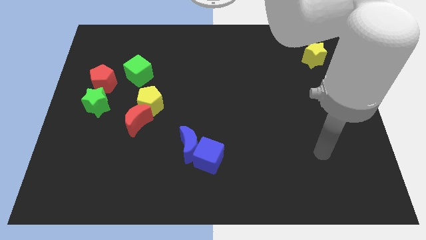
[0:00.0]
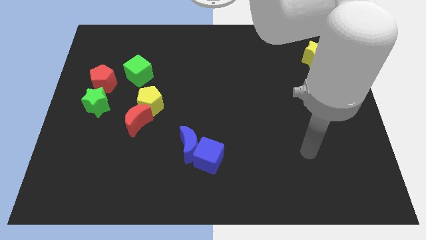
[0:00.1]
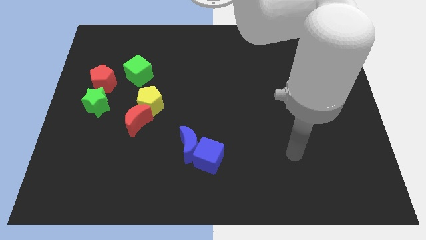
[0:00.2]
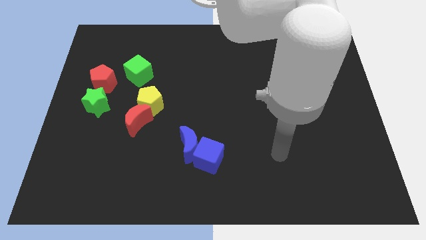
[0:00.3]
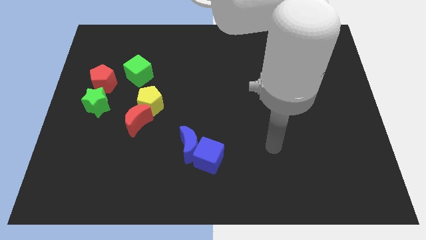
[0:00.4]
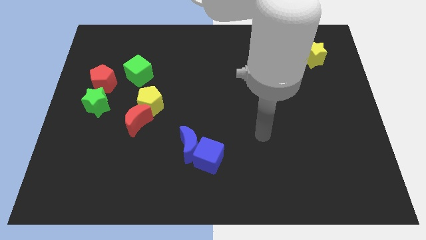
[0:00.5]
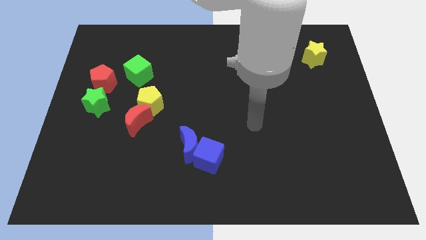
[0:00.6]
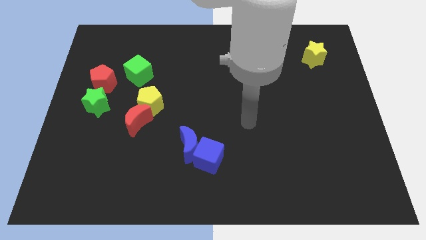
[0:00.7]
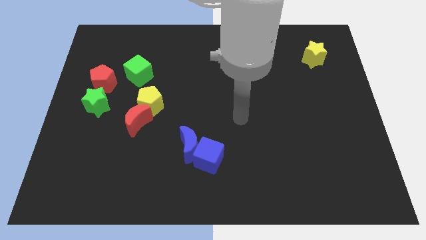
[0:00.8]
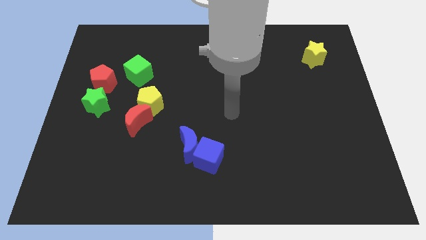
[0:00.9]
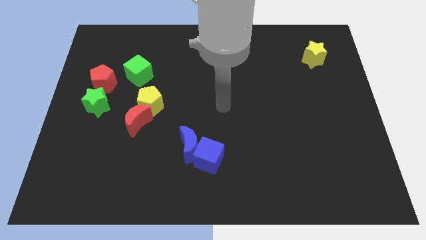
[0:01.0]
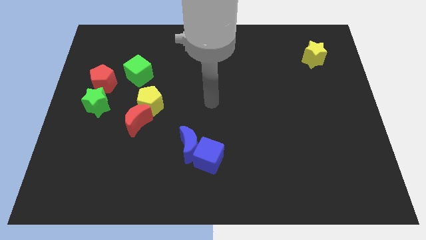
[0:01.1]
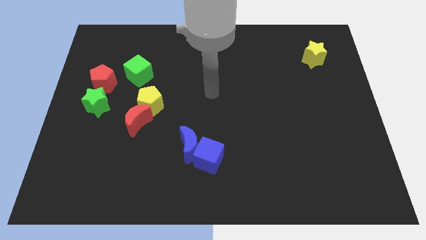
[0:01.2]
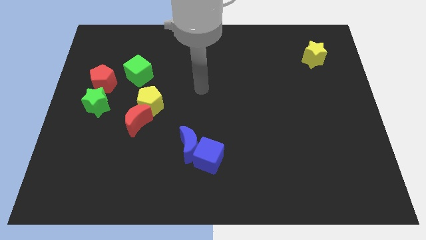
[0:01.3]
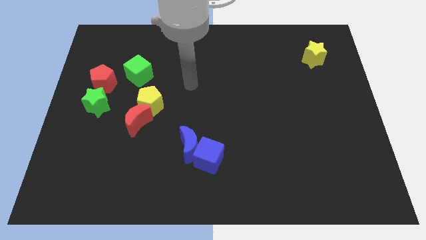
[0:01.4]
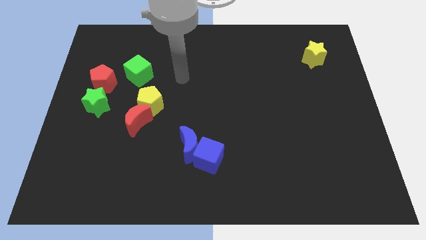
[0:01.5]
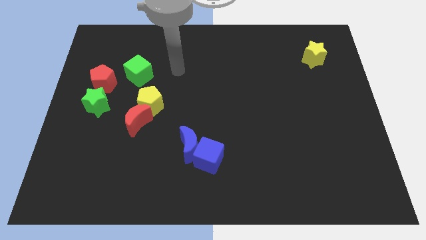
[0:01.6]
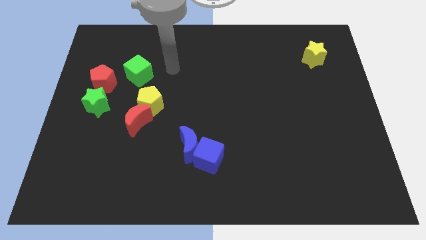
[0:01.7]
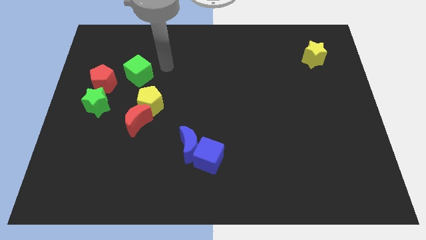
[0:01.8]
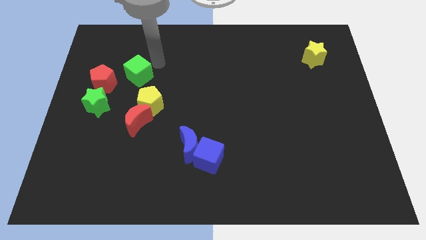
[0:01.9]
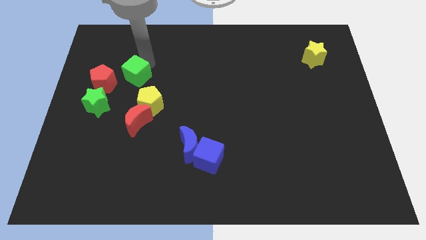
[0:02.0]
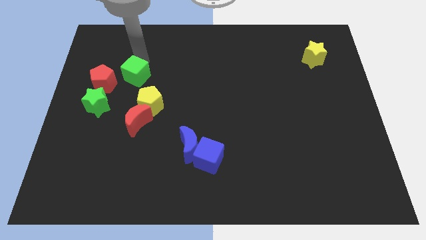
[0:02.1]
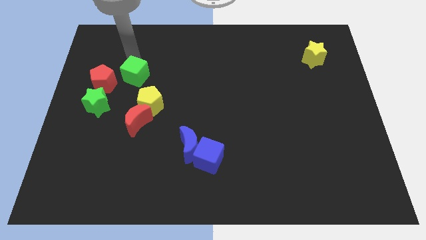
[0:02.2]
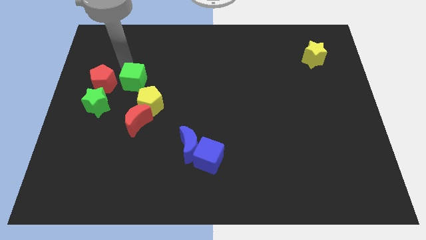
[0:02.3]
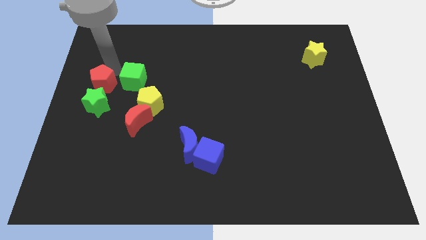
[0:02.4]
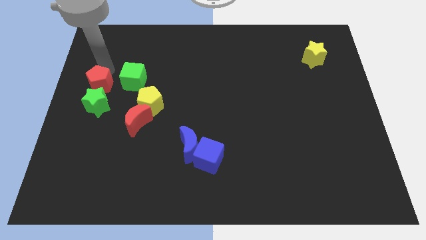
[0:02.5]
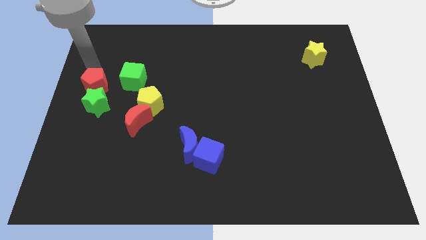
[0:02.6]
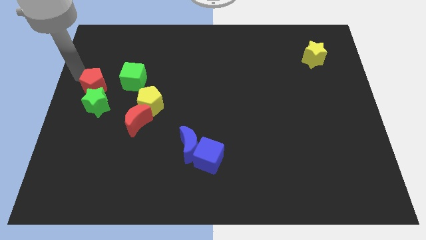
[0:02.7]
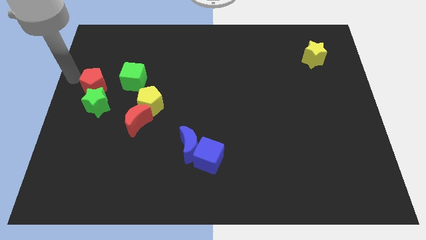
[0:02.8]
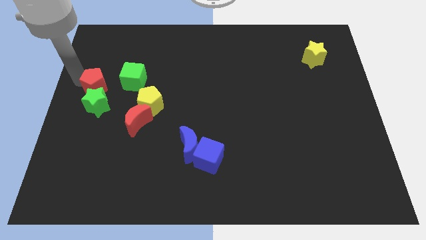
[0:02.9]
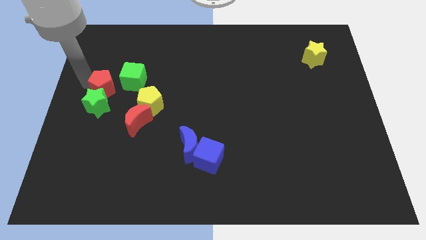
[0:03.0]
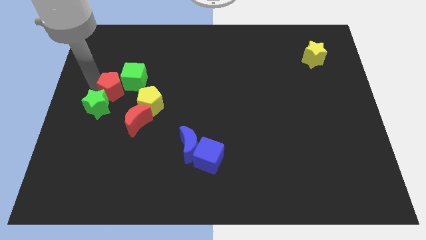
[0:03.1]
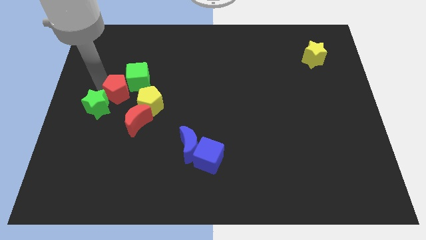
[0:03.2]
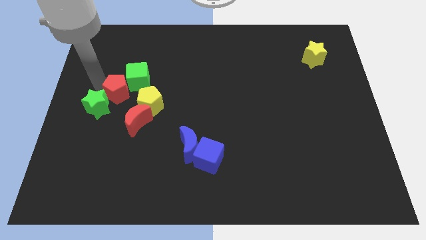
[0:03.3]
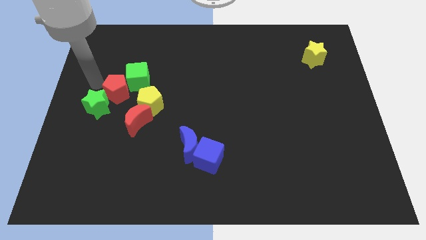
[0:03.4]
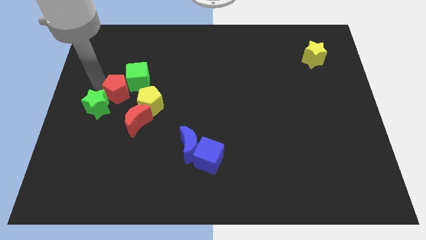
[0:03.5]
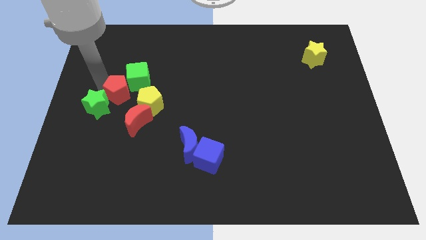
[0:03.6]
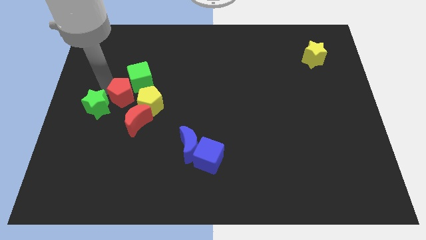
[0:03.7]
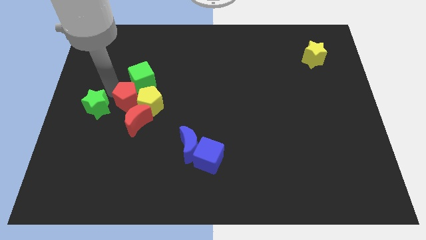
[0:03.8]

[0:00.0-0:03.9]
push the red pentagon towards the yellow pentagon

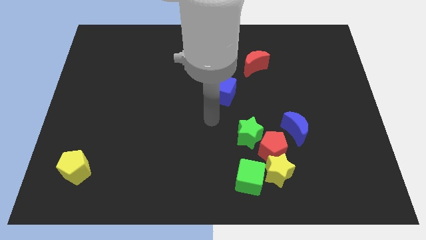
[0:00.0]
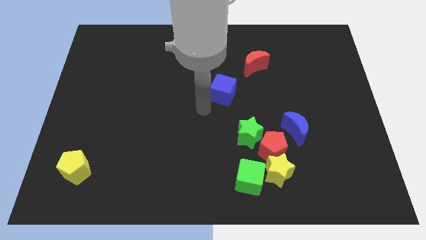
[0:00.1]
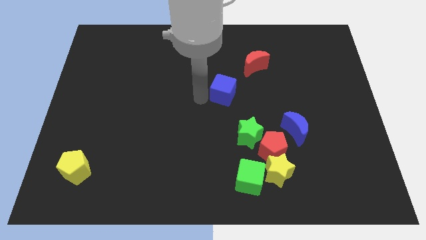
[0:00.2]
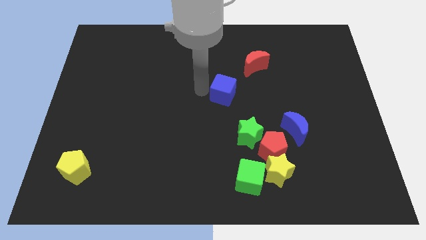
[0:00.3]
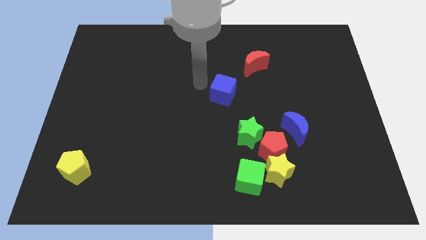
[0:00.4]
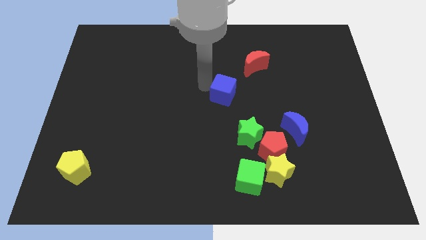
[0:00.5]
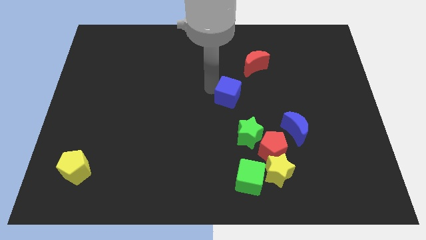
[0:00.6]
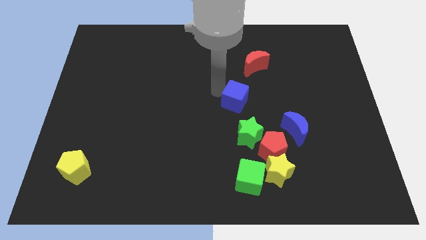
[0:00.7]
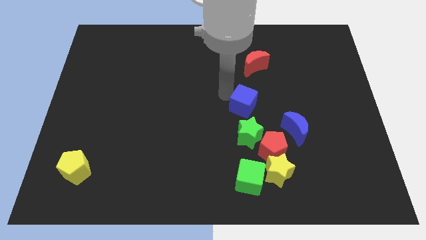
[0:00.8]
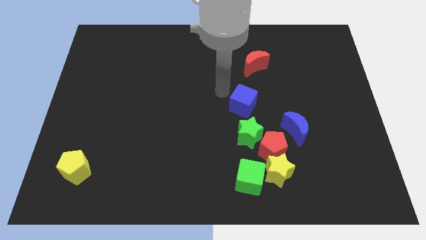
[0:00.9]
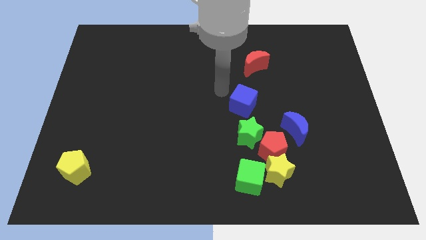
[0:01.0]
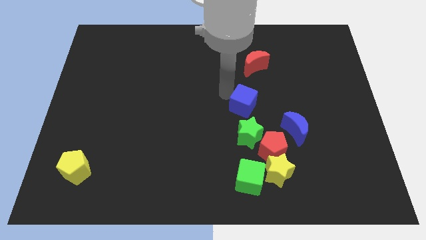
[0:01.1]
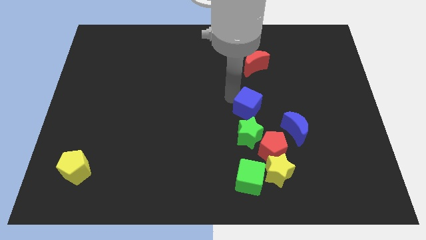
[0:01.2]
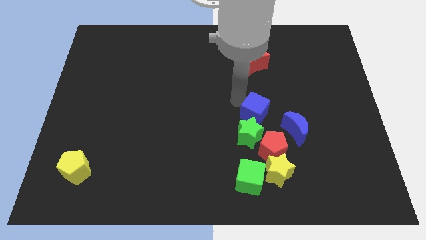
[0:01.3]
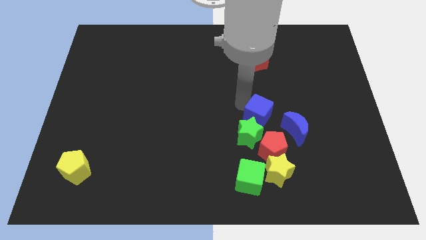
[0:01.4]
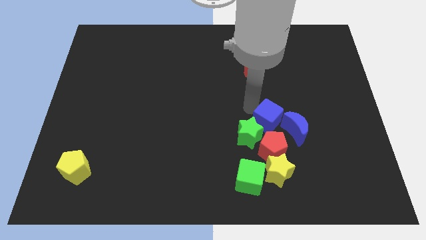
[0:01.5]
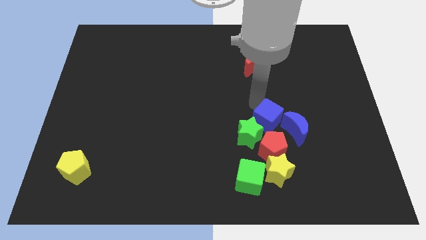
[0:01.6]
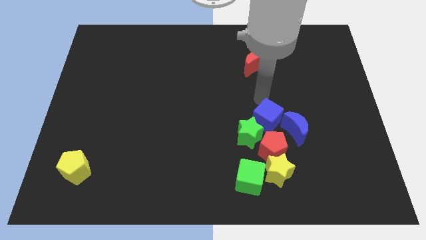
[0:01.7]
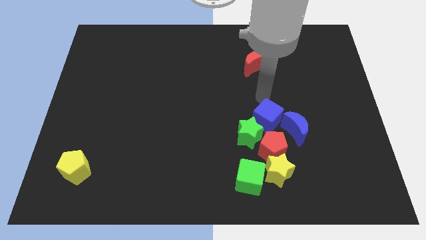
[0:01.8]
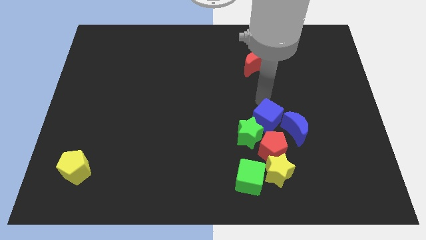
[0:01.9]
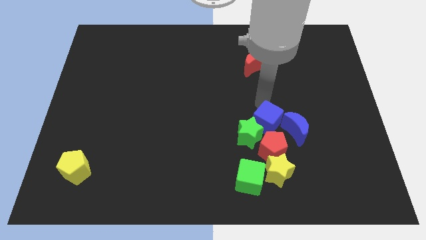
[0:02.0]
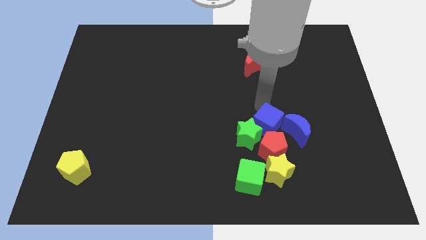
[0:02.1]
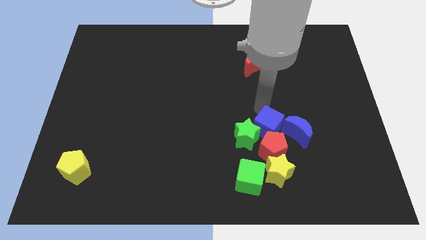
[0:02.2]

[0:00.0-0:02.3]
move the blue cube towards the red pentagon

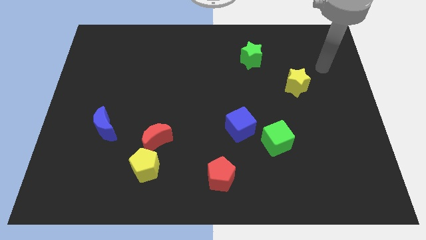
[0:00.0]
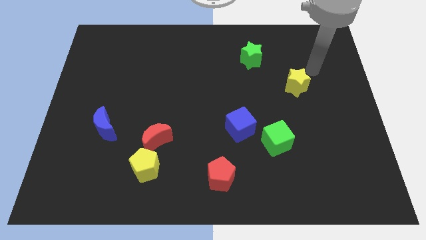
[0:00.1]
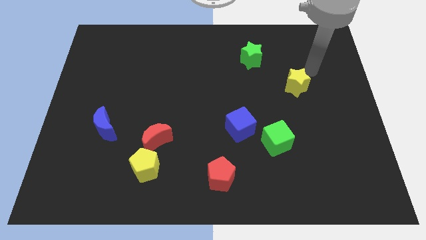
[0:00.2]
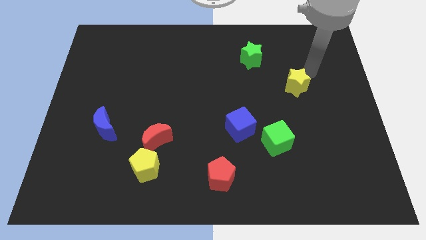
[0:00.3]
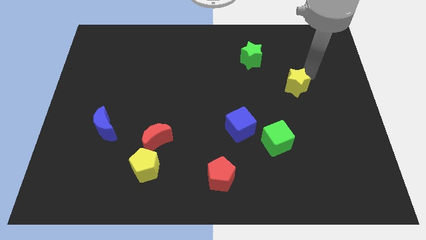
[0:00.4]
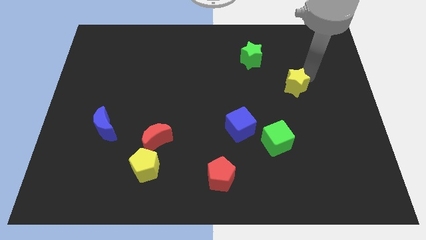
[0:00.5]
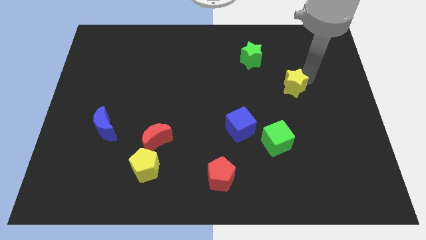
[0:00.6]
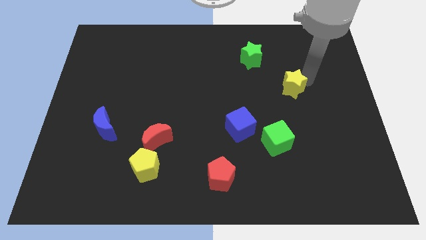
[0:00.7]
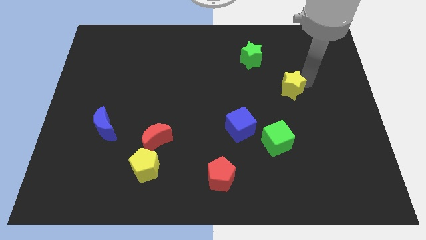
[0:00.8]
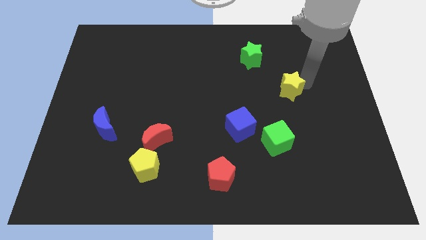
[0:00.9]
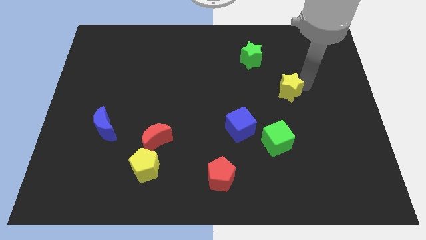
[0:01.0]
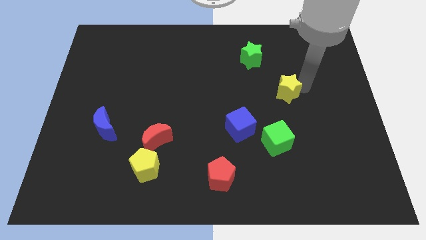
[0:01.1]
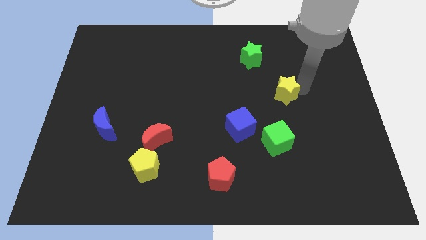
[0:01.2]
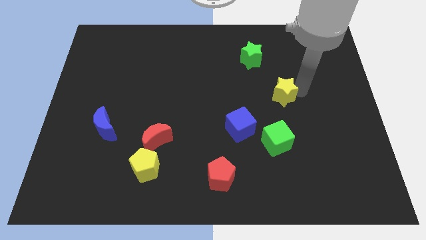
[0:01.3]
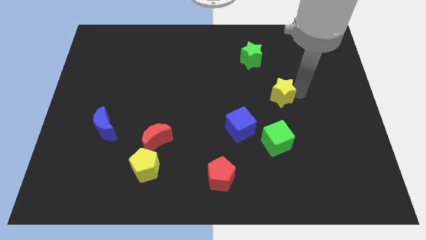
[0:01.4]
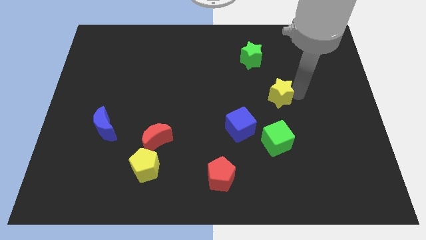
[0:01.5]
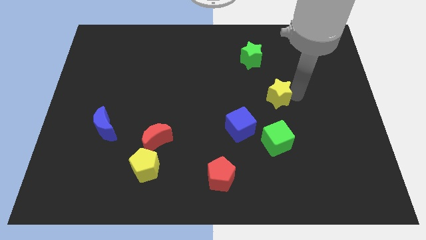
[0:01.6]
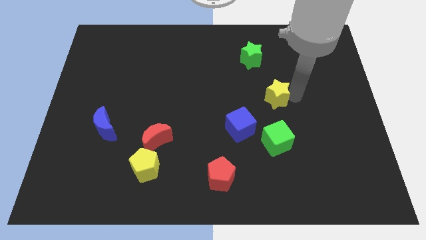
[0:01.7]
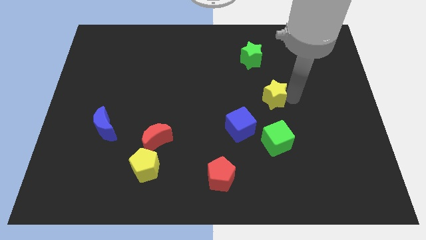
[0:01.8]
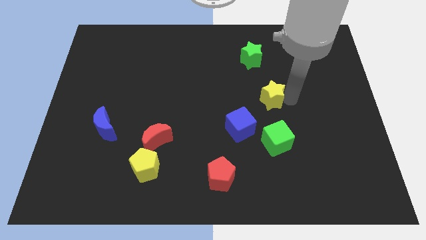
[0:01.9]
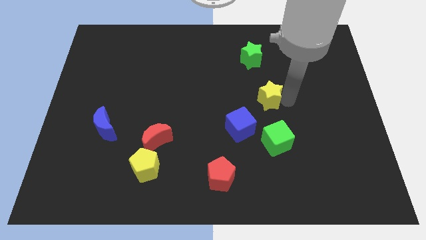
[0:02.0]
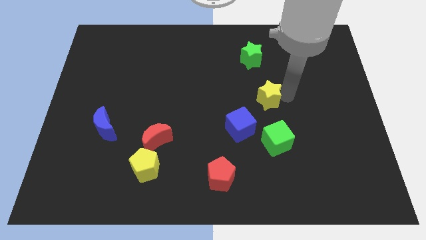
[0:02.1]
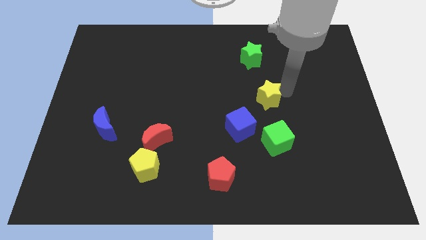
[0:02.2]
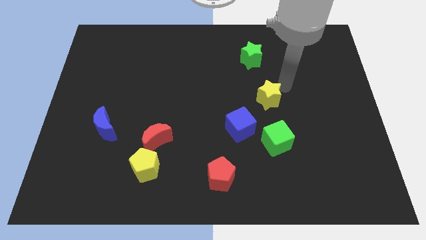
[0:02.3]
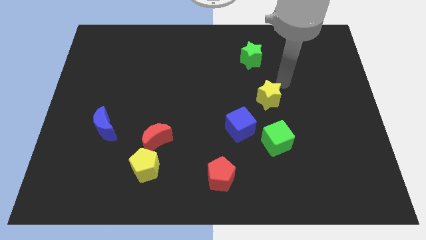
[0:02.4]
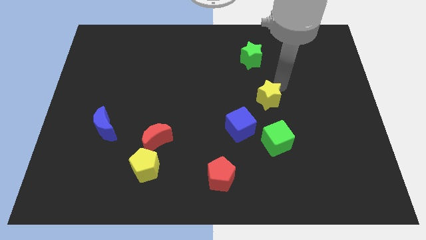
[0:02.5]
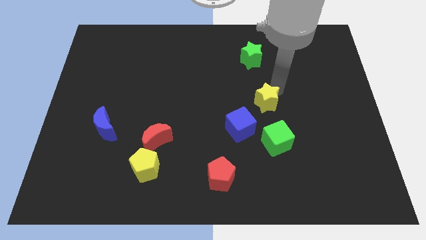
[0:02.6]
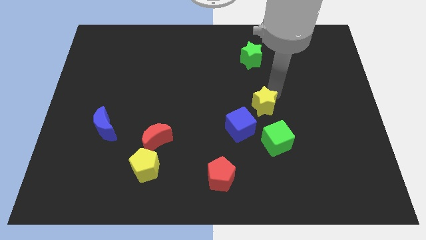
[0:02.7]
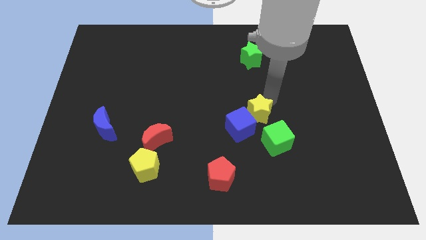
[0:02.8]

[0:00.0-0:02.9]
move the yellow star close to the blue cube
